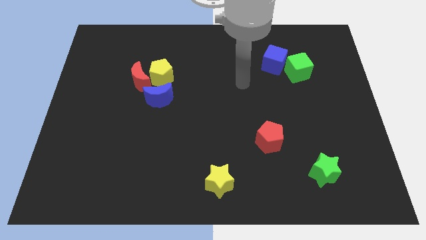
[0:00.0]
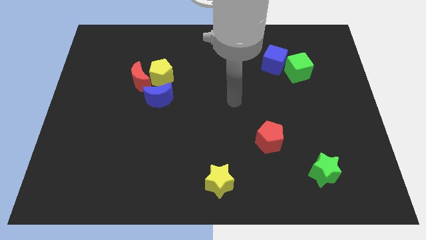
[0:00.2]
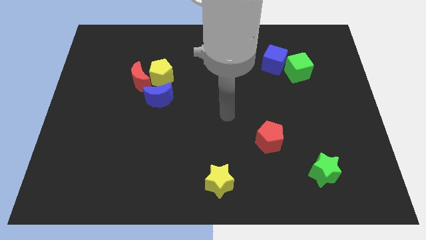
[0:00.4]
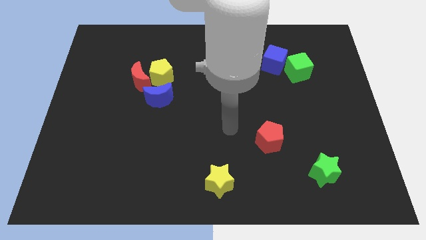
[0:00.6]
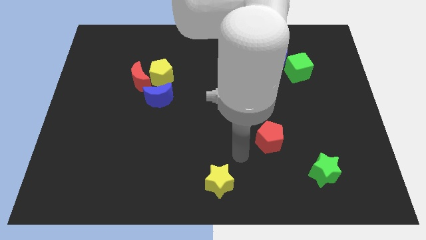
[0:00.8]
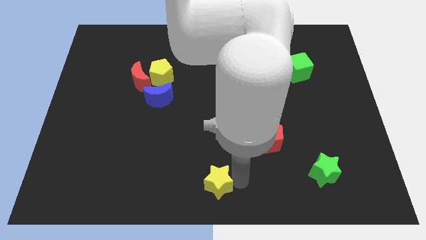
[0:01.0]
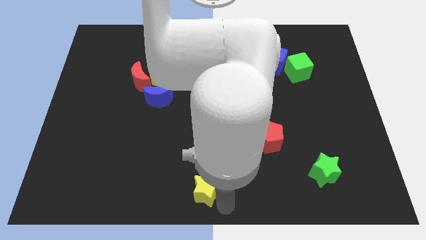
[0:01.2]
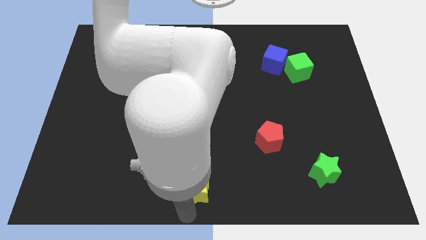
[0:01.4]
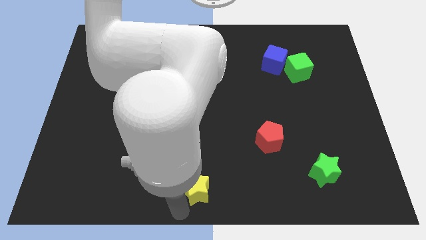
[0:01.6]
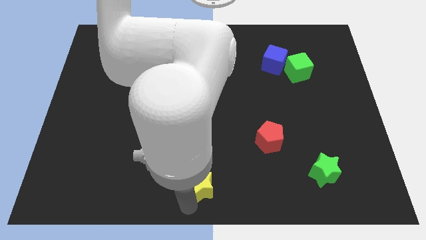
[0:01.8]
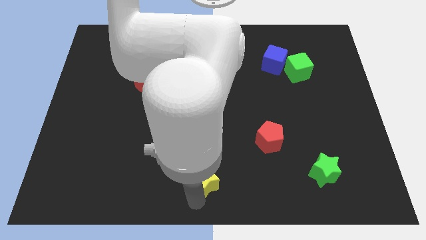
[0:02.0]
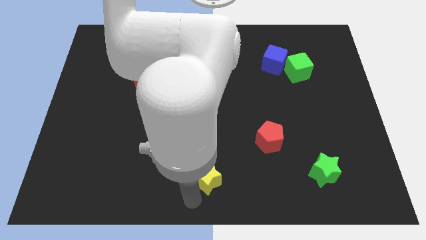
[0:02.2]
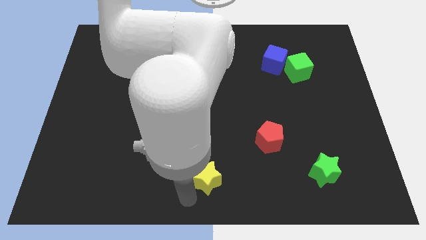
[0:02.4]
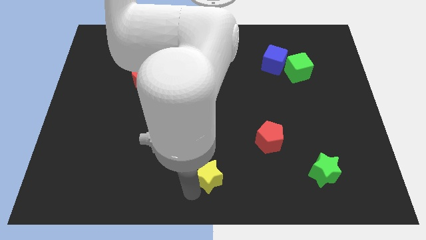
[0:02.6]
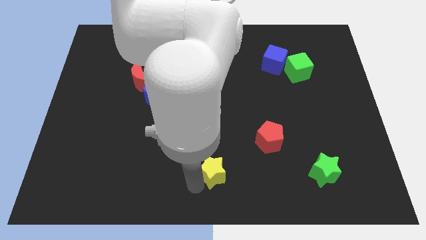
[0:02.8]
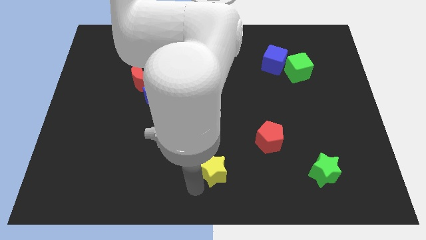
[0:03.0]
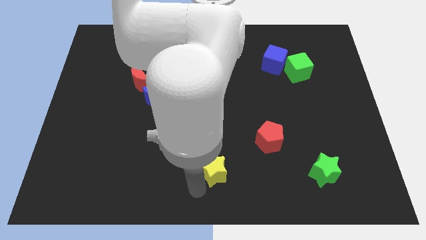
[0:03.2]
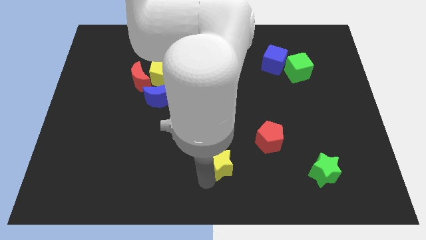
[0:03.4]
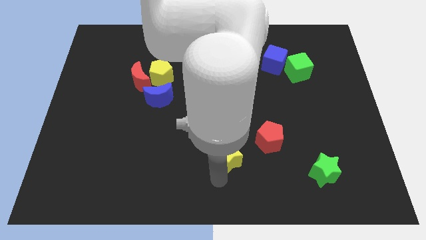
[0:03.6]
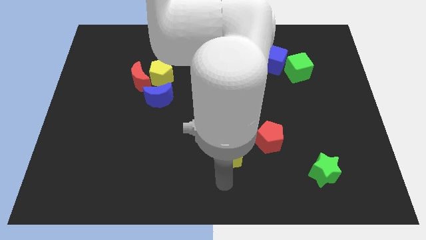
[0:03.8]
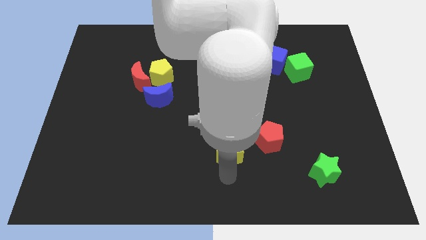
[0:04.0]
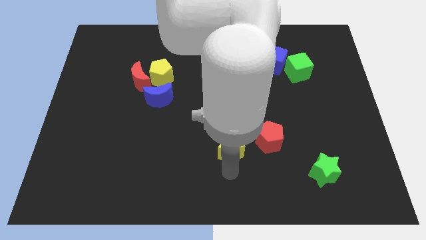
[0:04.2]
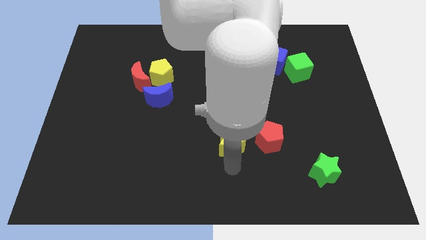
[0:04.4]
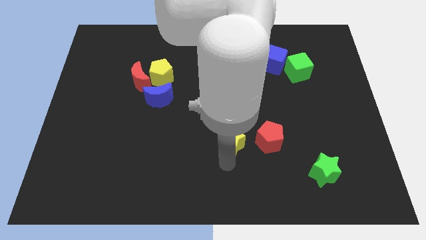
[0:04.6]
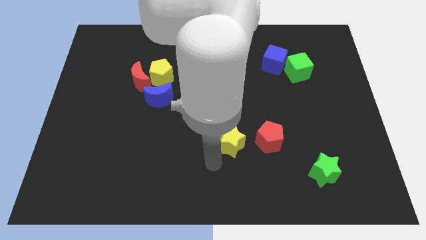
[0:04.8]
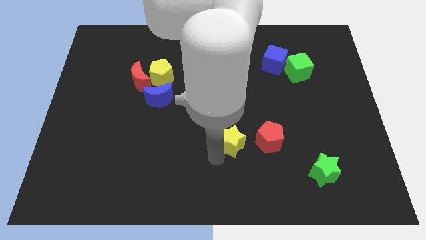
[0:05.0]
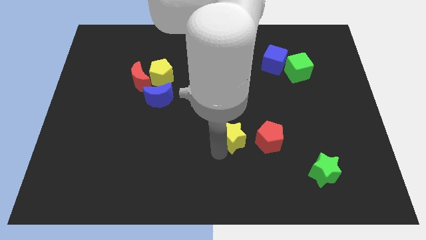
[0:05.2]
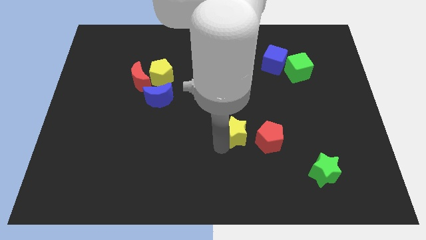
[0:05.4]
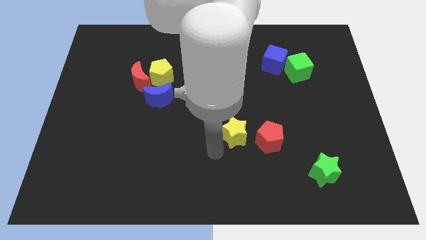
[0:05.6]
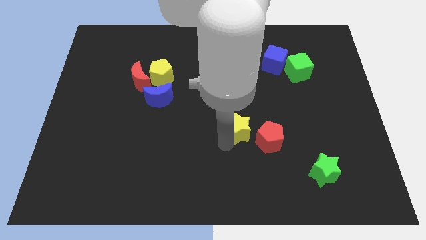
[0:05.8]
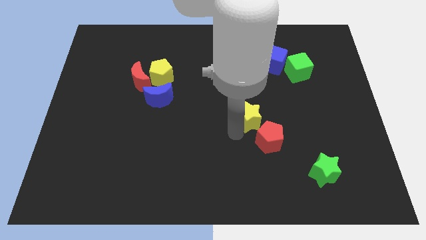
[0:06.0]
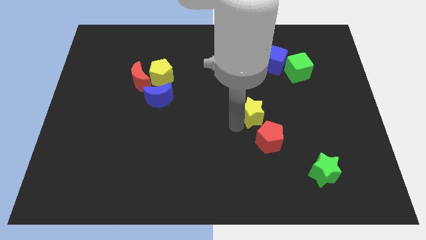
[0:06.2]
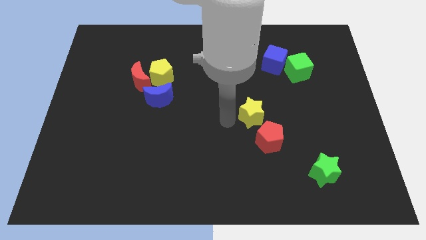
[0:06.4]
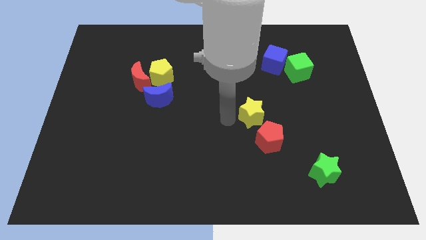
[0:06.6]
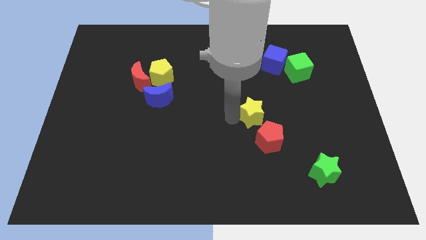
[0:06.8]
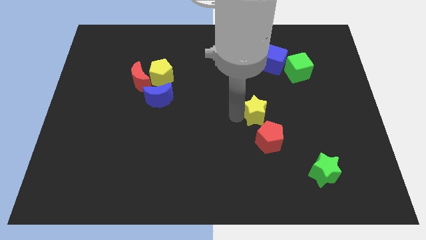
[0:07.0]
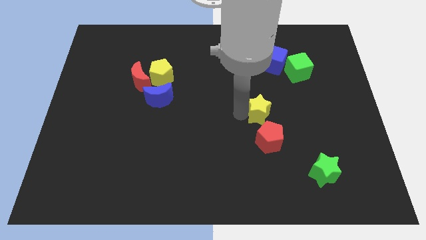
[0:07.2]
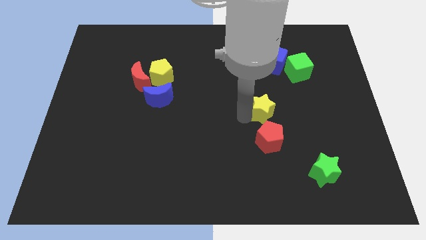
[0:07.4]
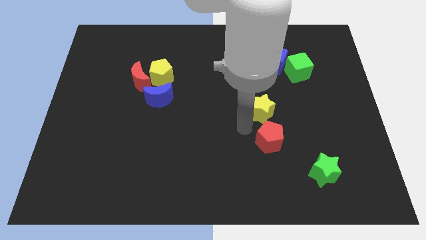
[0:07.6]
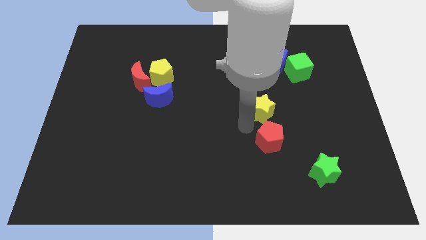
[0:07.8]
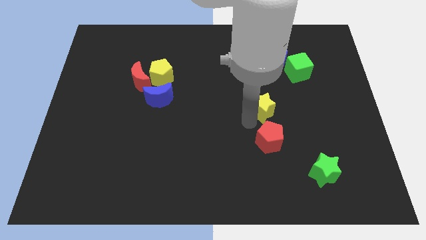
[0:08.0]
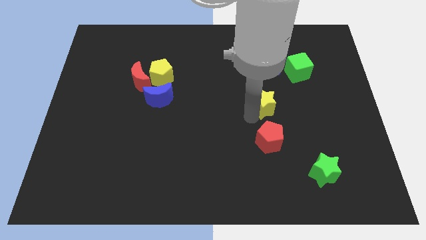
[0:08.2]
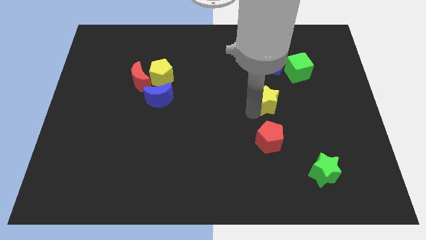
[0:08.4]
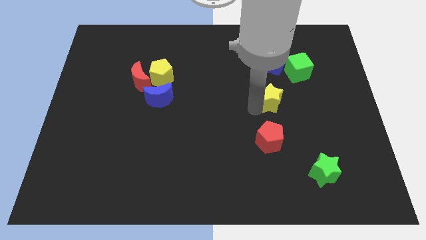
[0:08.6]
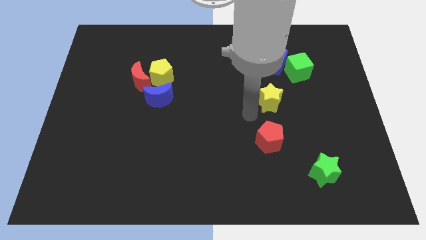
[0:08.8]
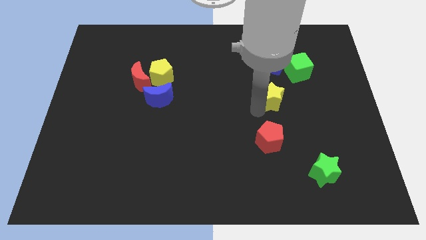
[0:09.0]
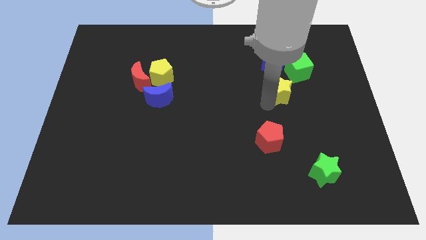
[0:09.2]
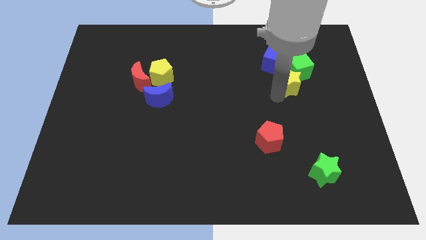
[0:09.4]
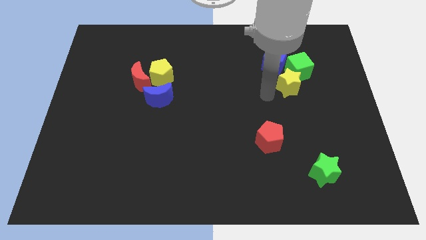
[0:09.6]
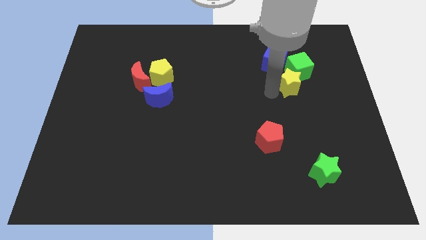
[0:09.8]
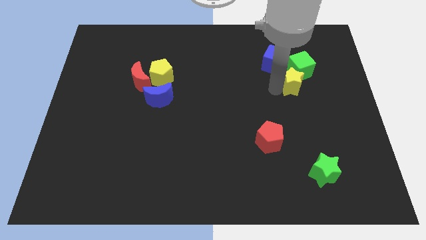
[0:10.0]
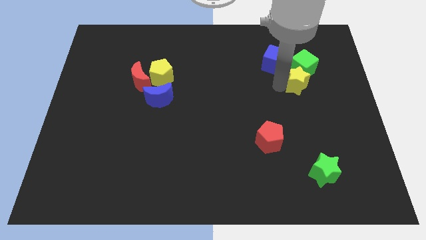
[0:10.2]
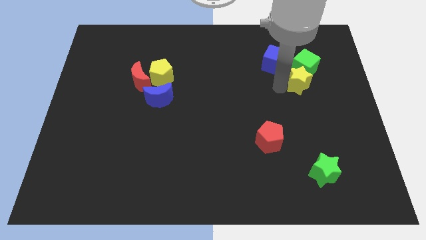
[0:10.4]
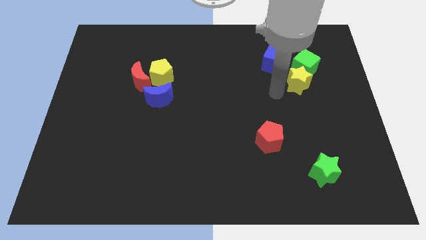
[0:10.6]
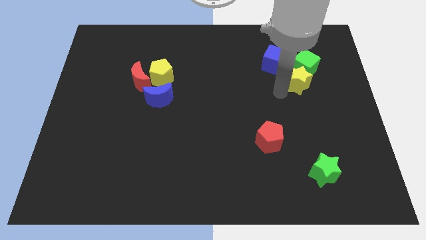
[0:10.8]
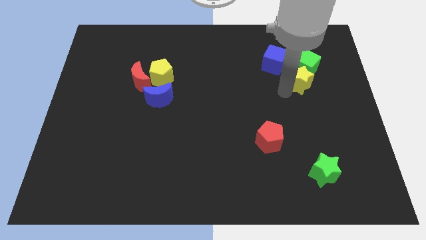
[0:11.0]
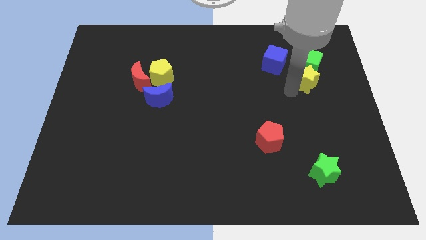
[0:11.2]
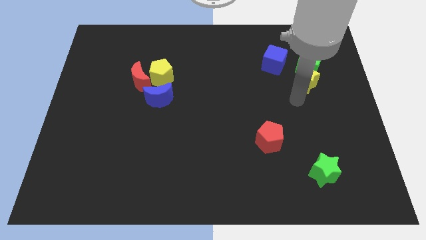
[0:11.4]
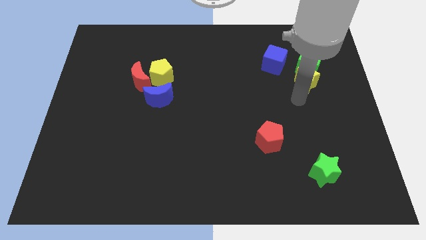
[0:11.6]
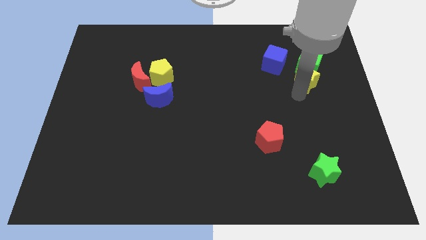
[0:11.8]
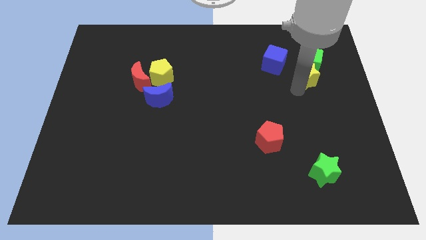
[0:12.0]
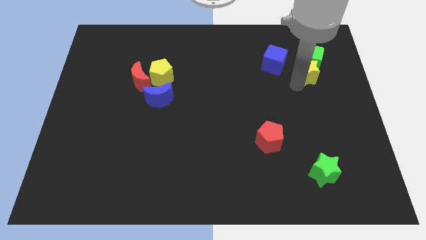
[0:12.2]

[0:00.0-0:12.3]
push the yellow star to the right of the blue cube

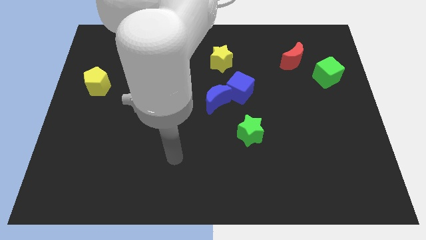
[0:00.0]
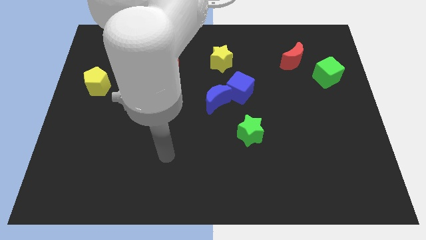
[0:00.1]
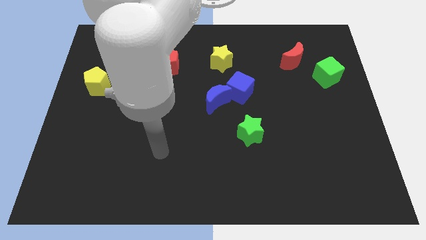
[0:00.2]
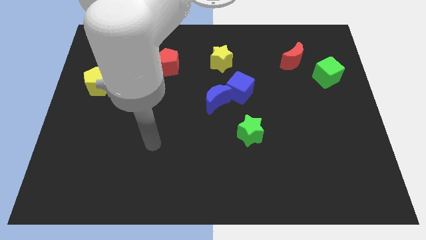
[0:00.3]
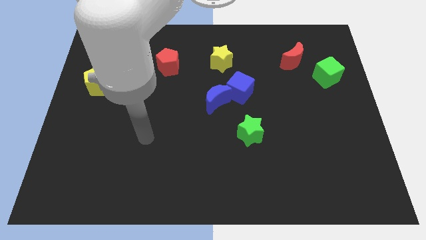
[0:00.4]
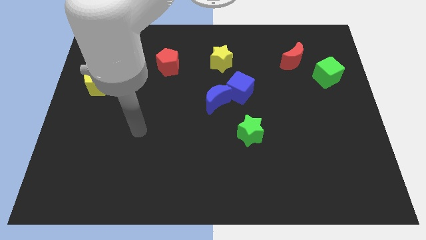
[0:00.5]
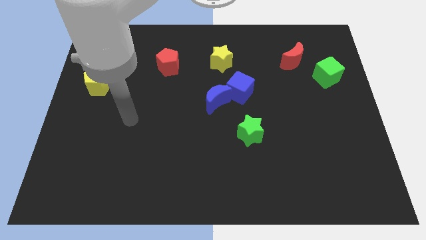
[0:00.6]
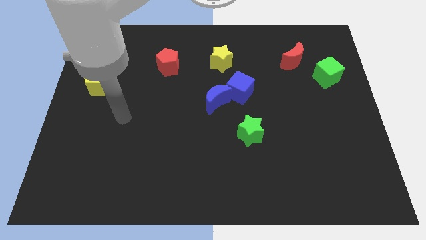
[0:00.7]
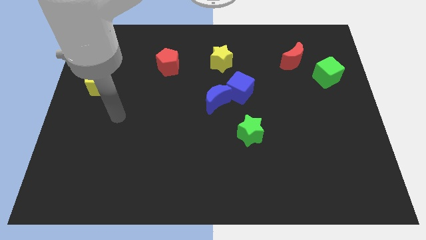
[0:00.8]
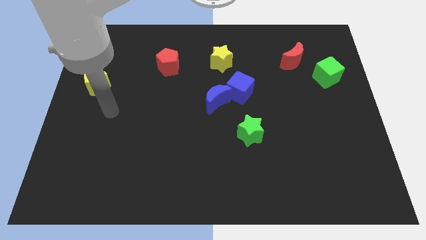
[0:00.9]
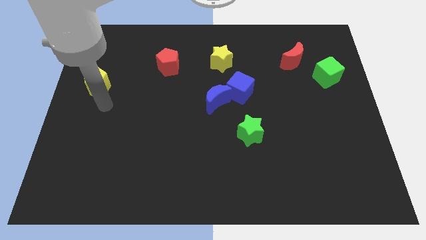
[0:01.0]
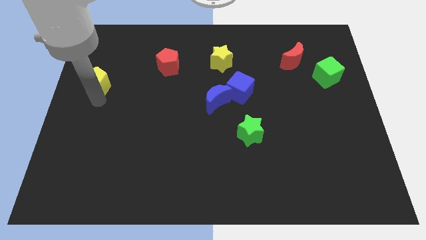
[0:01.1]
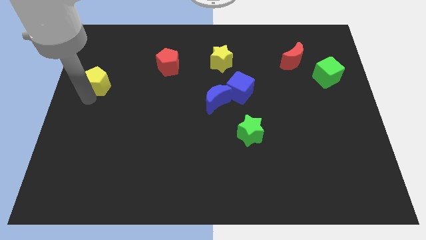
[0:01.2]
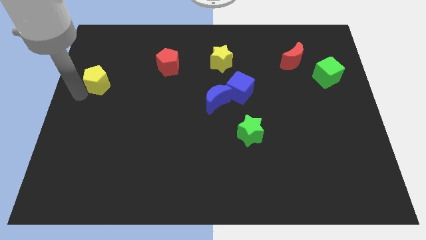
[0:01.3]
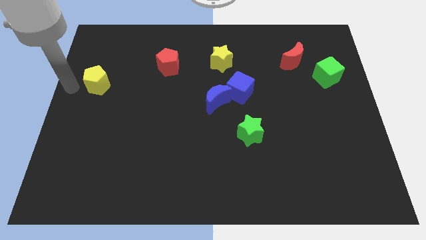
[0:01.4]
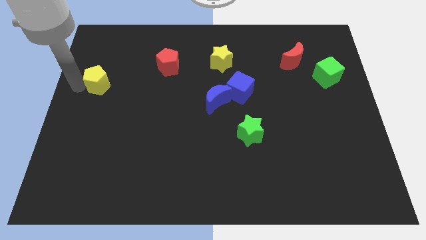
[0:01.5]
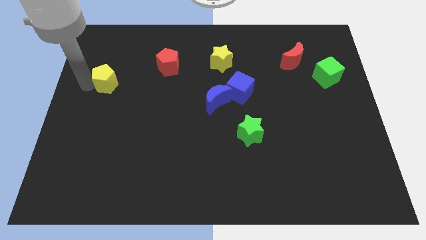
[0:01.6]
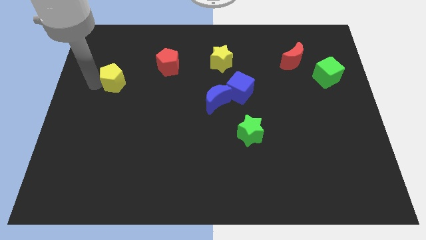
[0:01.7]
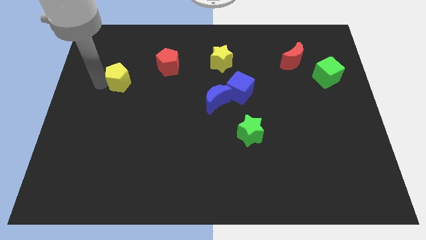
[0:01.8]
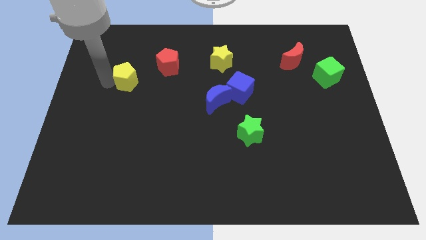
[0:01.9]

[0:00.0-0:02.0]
slide the yellow pentagon to the bottom left of the red pentagon
